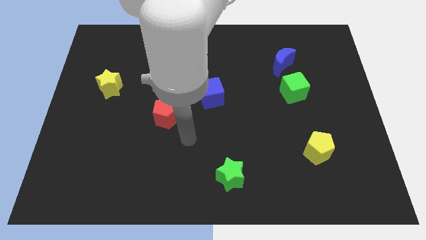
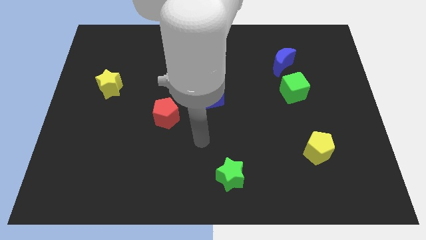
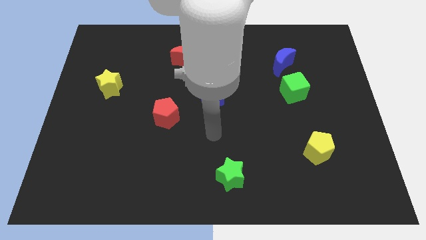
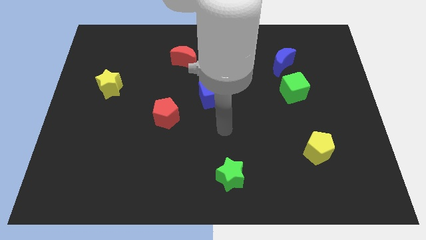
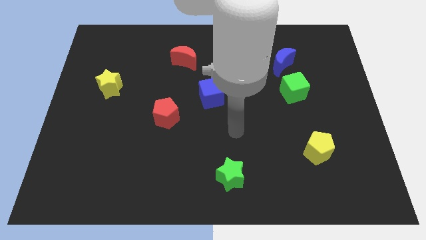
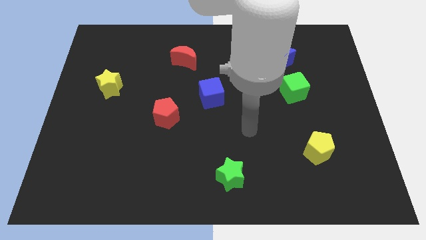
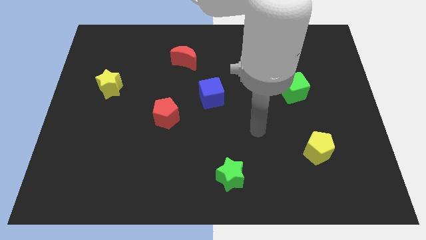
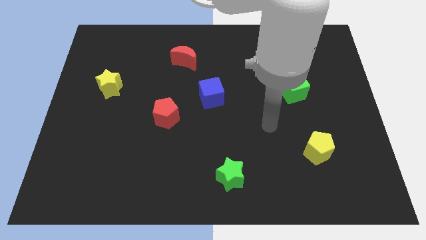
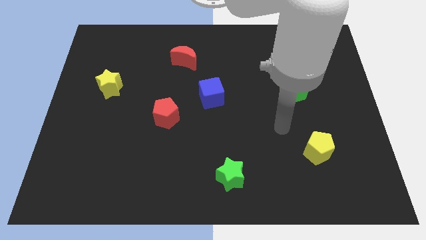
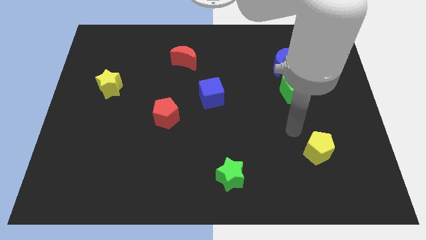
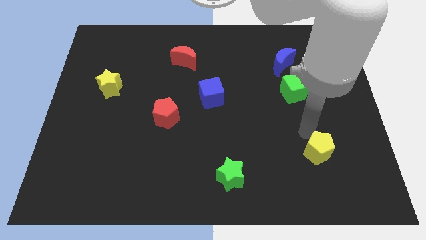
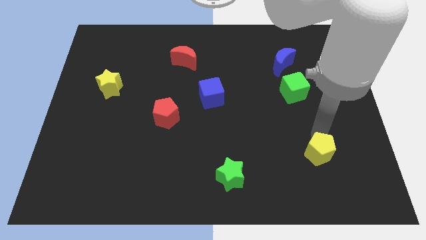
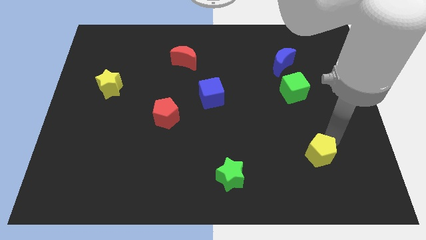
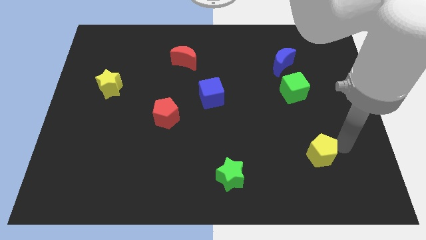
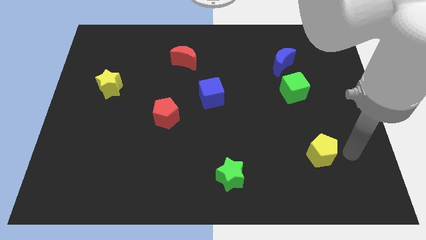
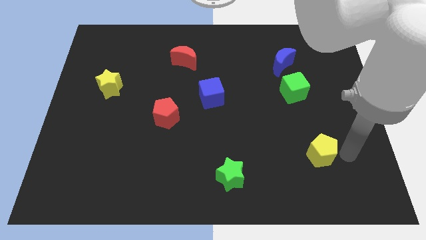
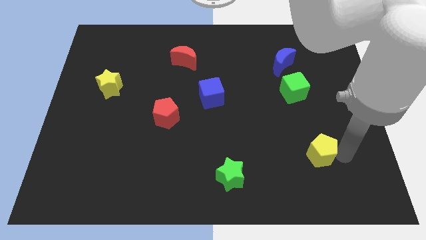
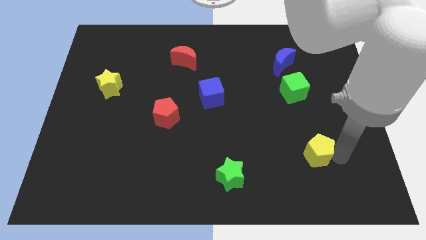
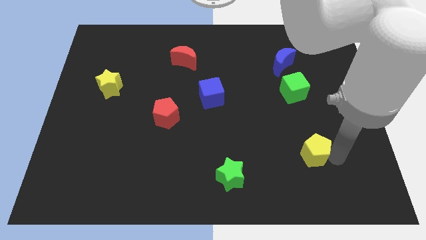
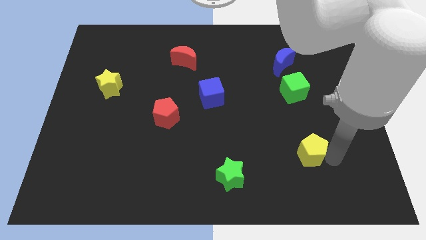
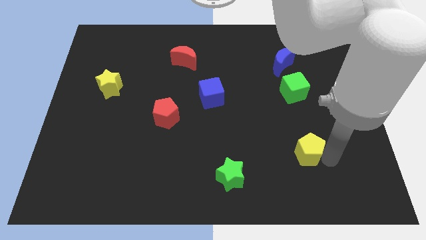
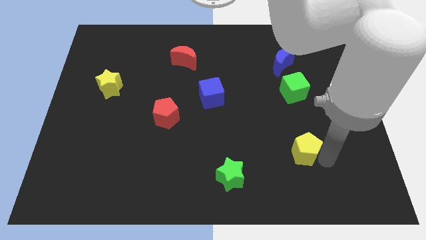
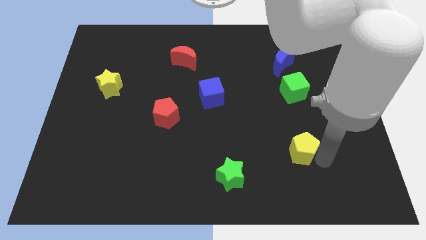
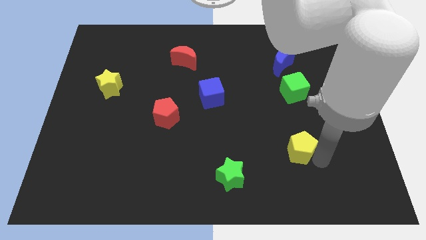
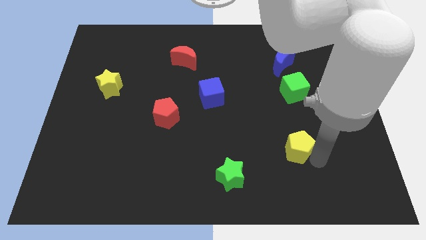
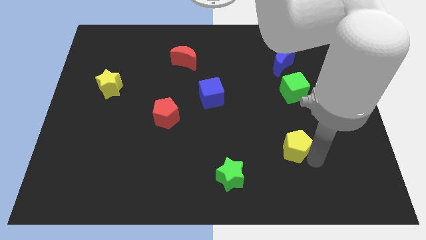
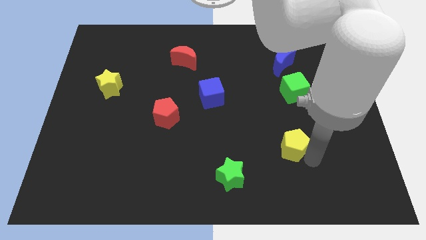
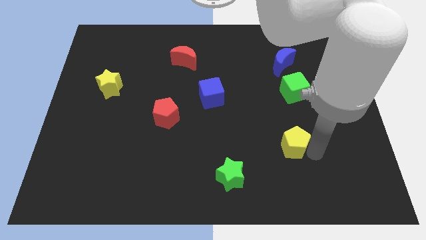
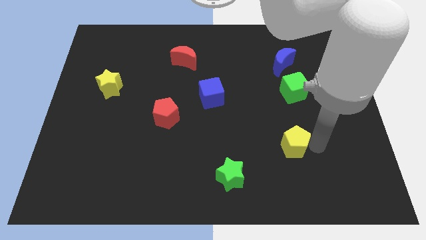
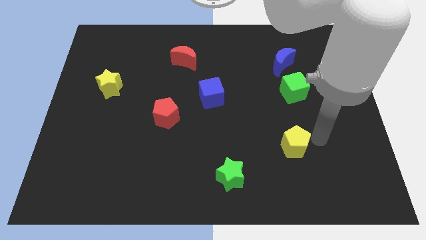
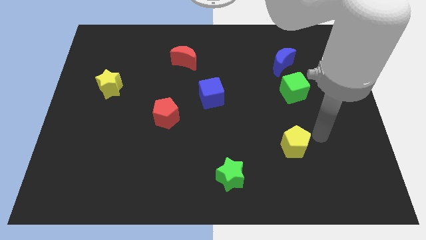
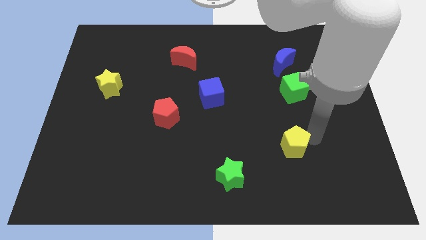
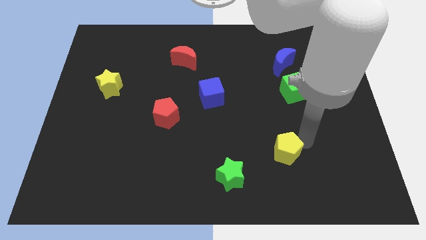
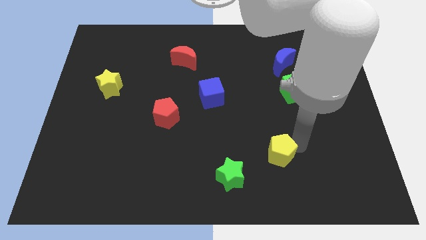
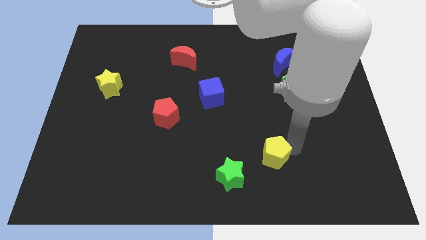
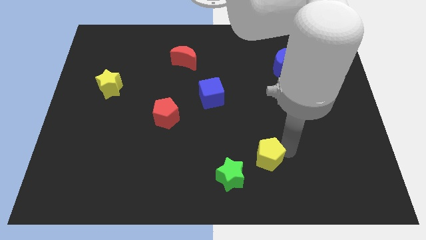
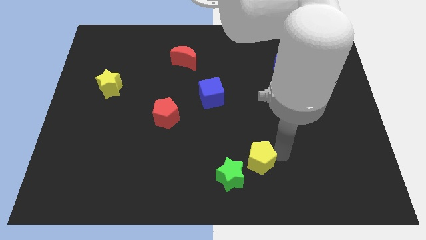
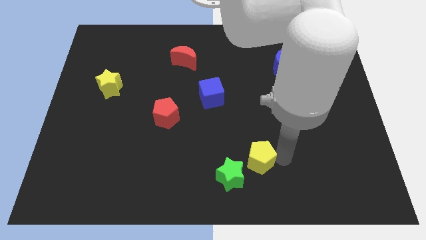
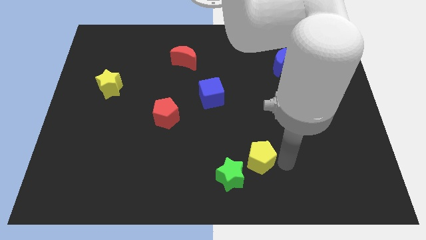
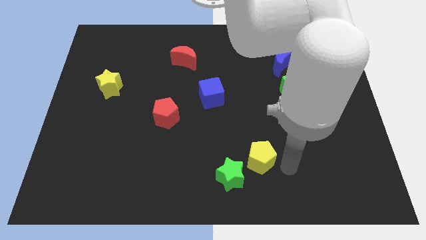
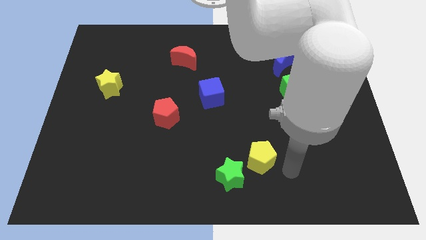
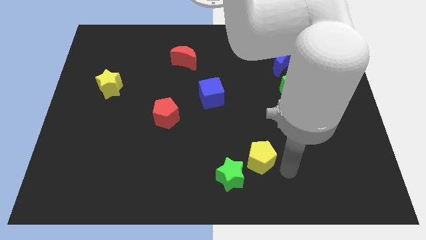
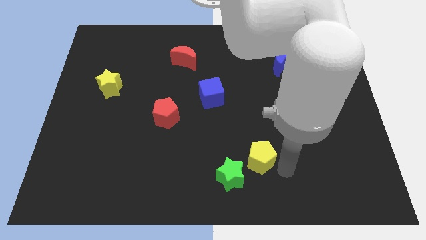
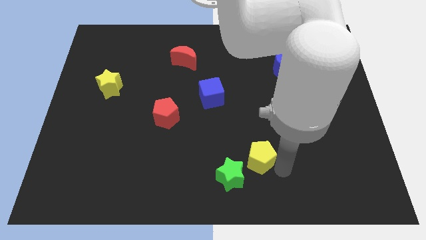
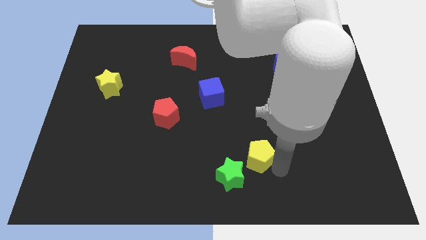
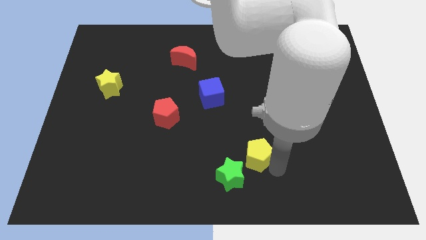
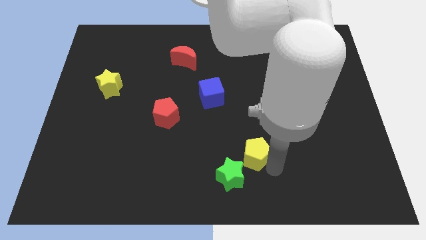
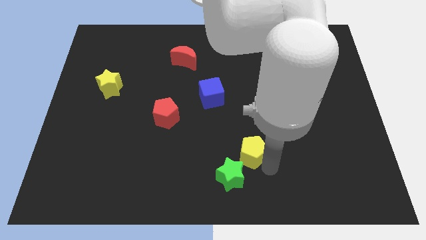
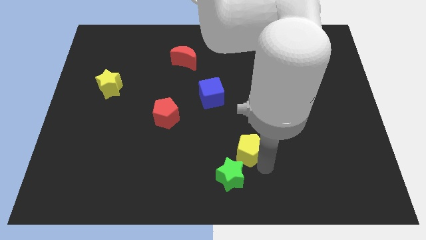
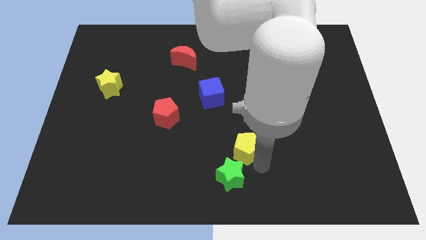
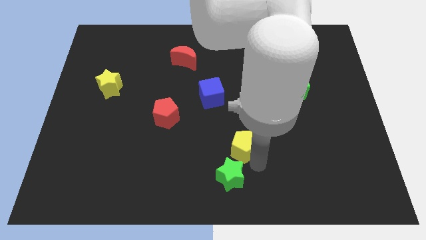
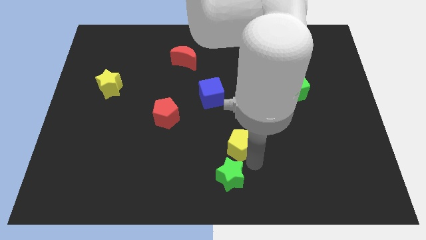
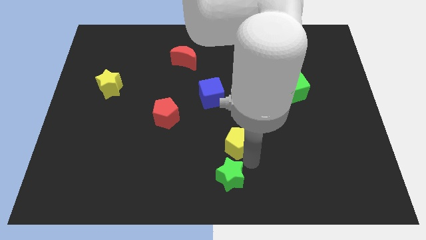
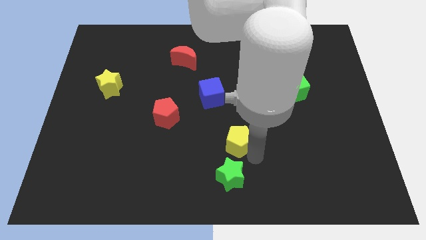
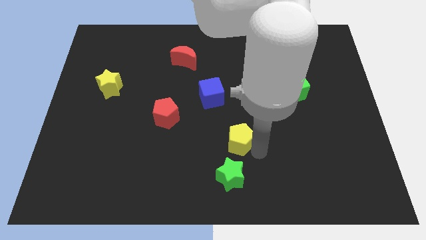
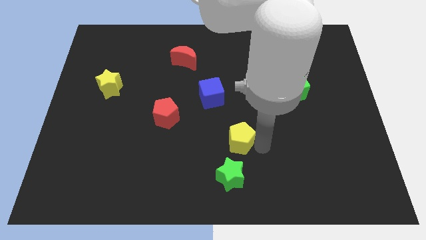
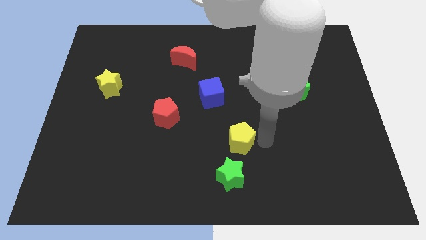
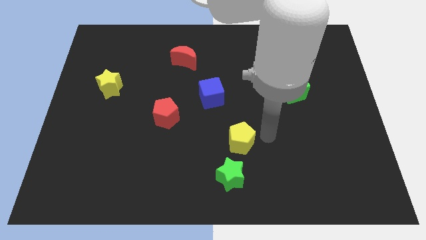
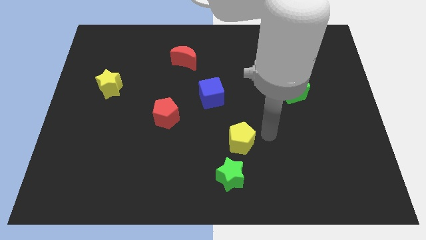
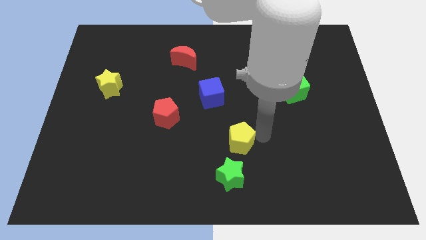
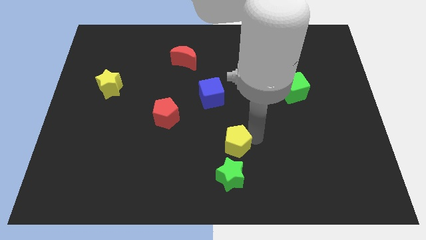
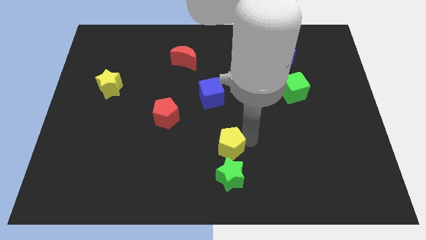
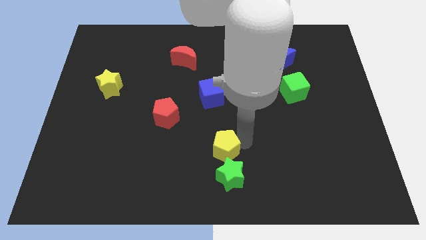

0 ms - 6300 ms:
move the yellow pentagon to the left

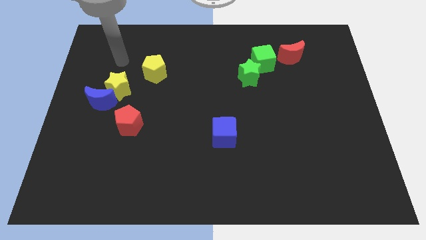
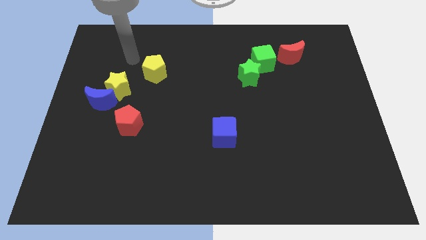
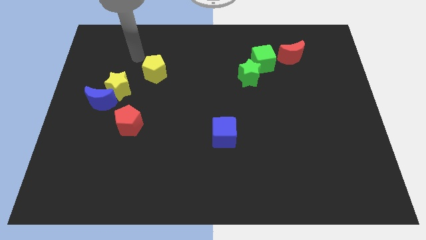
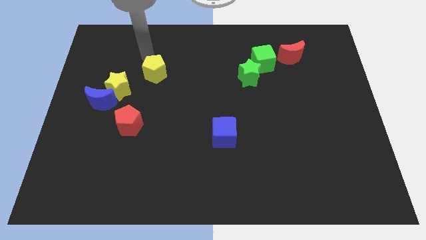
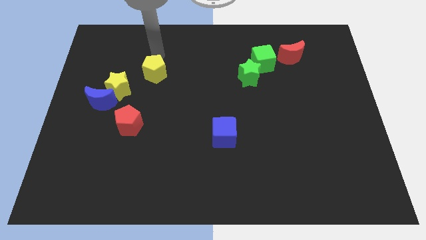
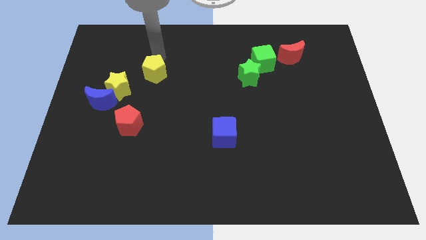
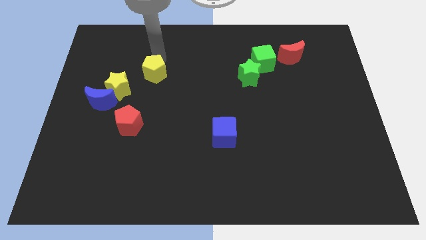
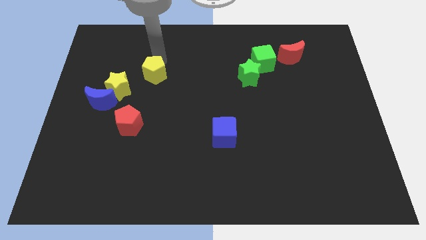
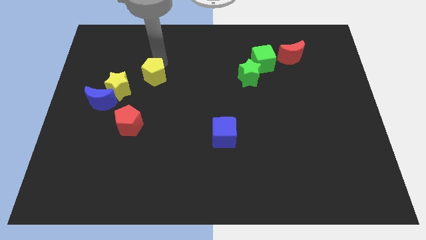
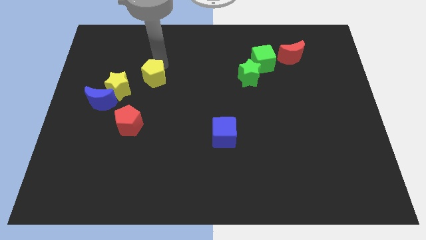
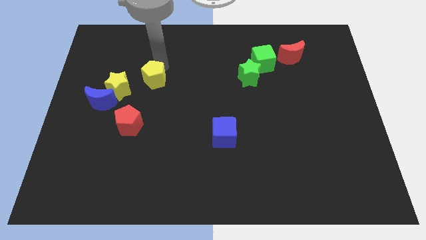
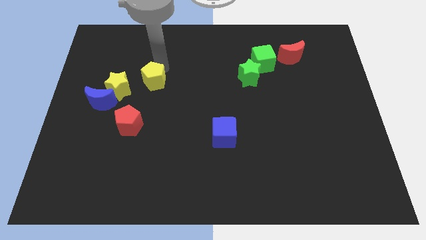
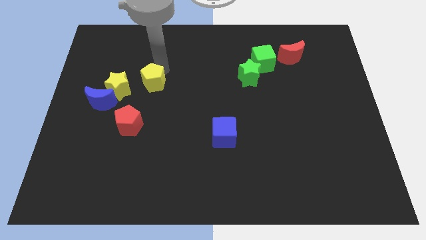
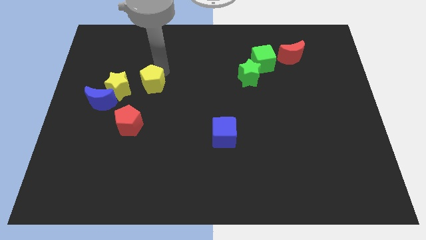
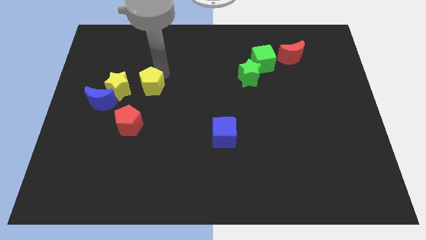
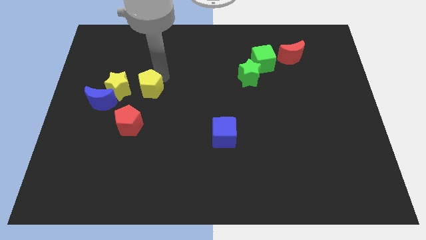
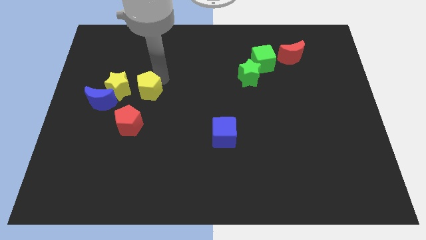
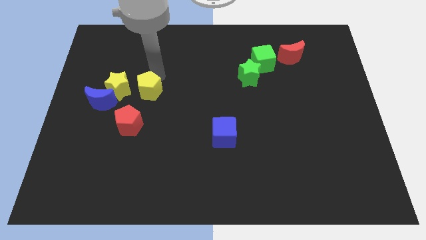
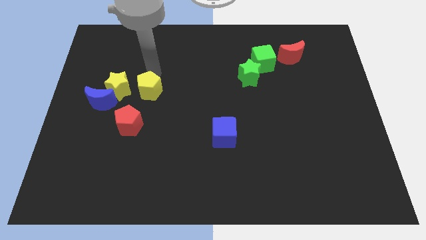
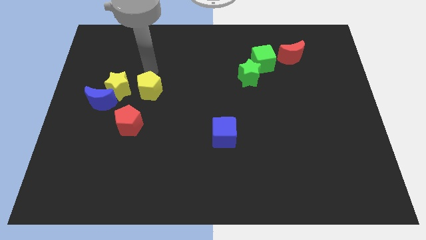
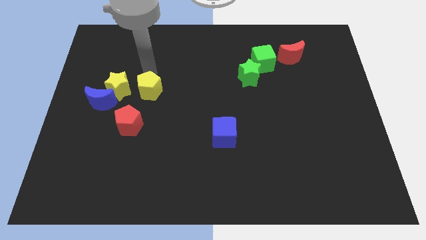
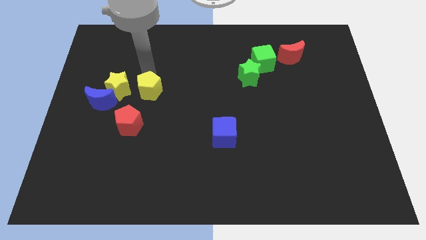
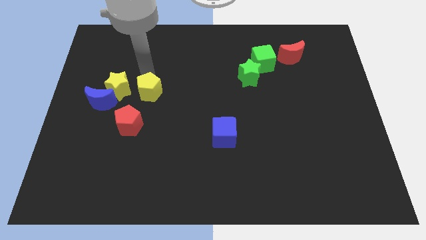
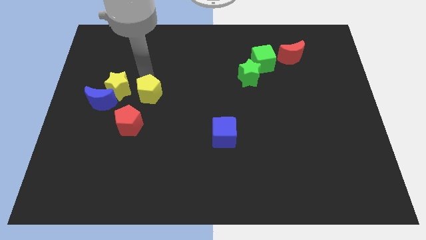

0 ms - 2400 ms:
push the yellow pentagon downwards a little bit
